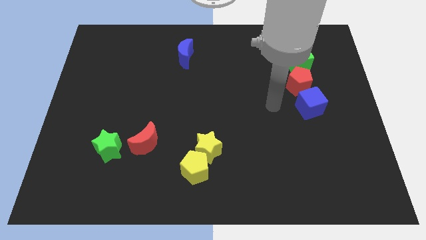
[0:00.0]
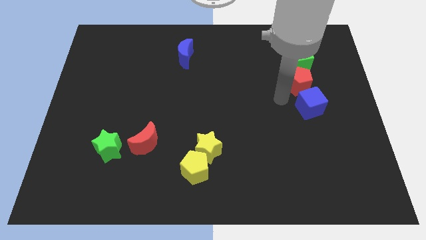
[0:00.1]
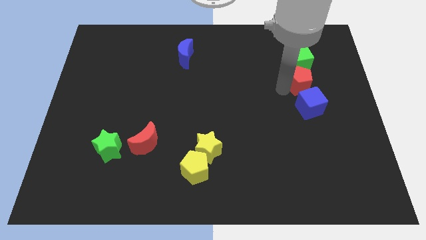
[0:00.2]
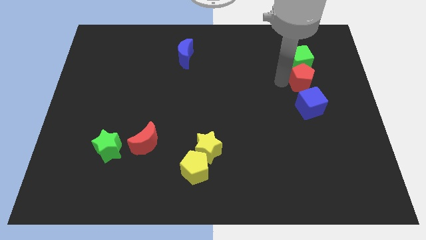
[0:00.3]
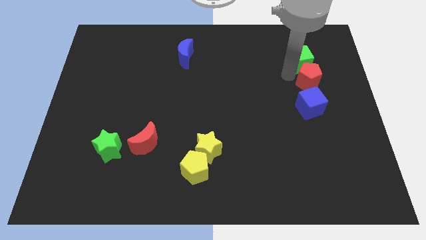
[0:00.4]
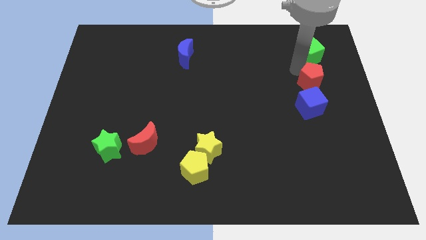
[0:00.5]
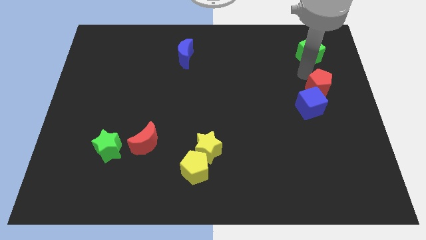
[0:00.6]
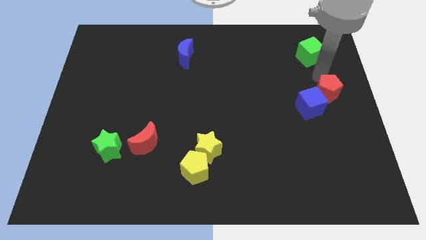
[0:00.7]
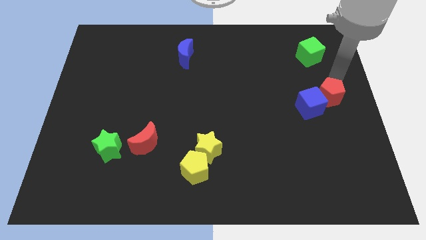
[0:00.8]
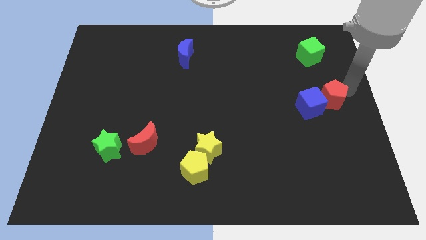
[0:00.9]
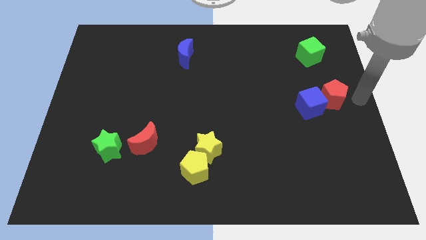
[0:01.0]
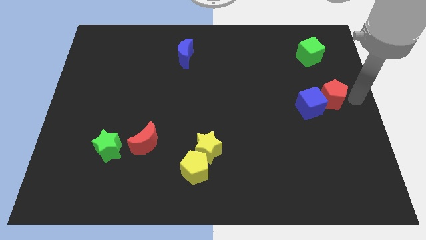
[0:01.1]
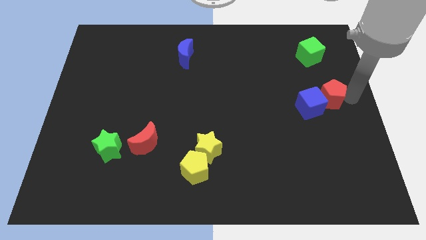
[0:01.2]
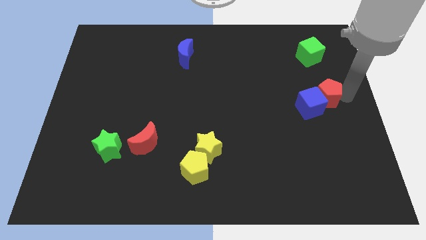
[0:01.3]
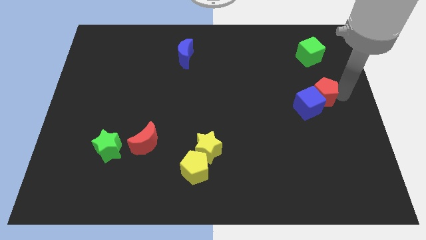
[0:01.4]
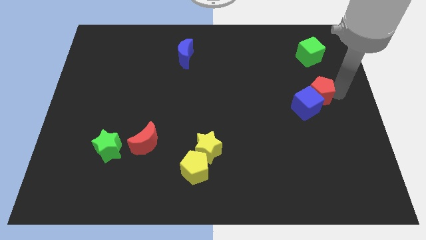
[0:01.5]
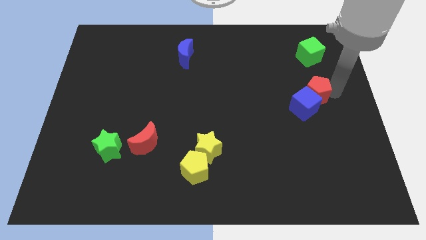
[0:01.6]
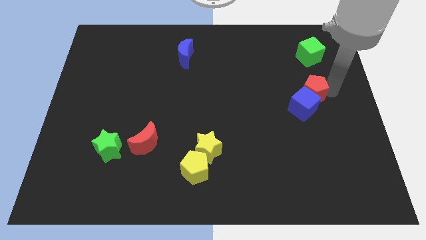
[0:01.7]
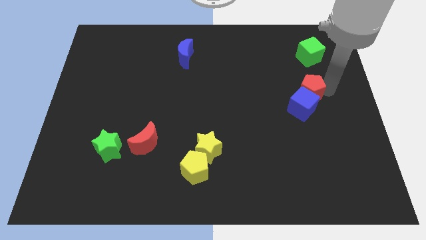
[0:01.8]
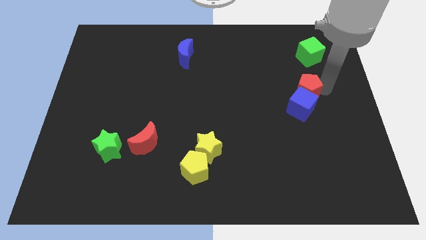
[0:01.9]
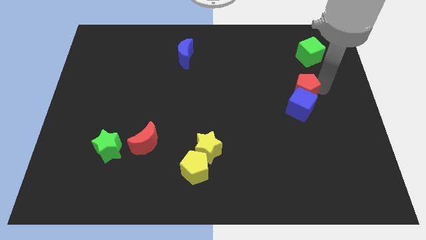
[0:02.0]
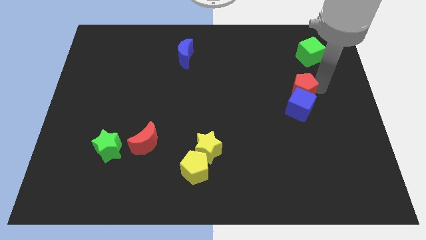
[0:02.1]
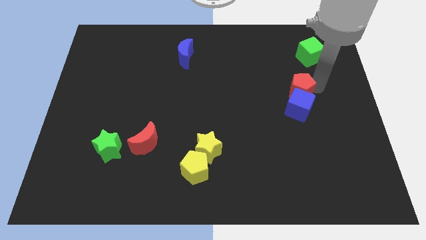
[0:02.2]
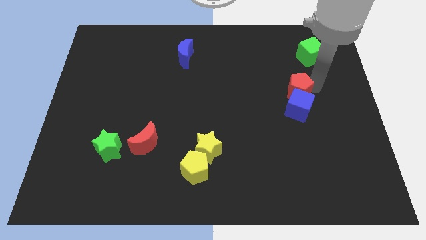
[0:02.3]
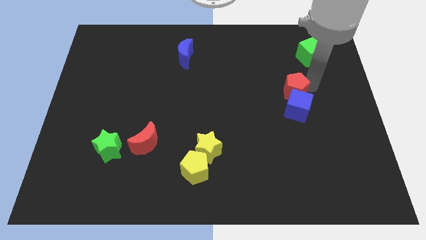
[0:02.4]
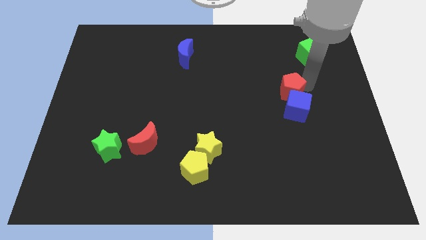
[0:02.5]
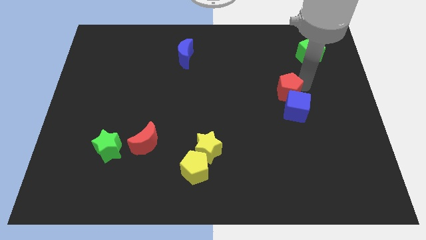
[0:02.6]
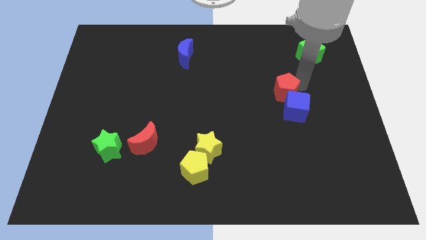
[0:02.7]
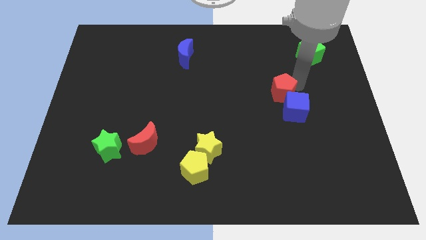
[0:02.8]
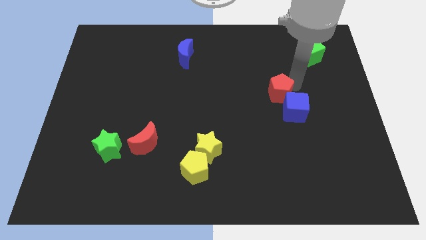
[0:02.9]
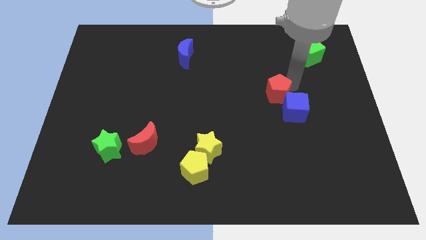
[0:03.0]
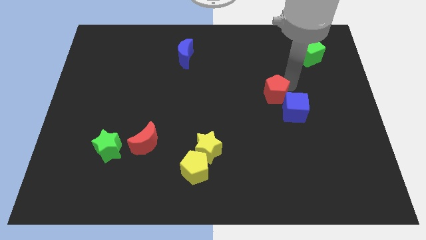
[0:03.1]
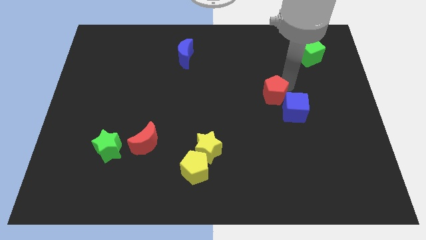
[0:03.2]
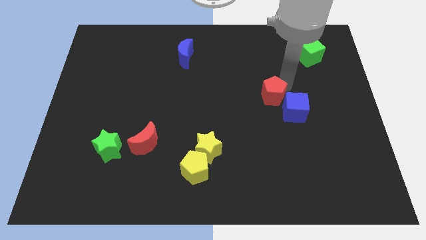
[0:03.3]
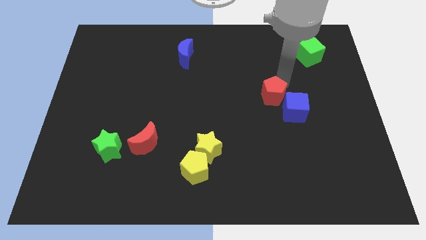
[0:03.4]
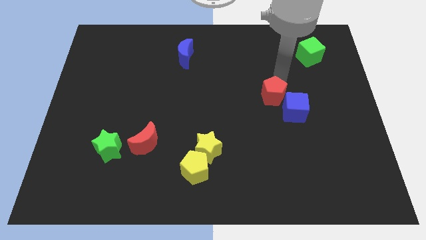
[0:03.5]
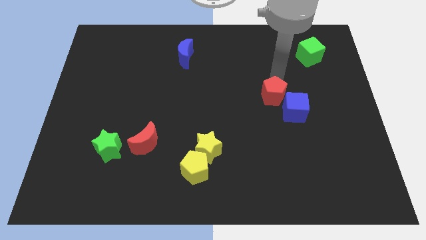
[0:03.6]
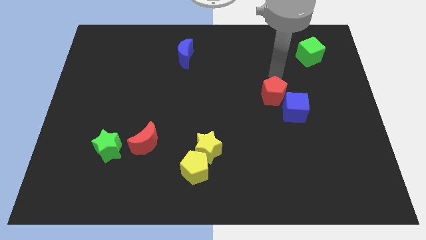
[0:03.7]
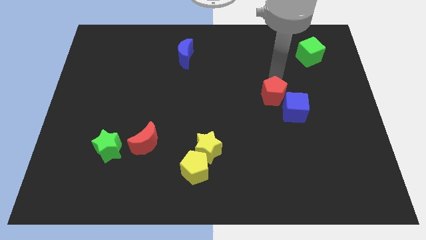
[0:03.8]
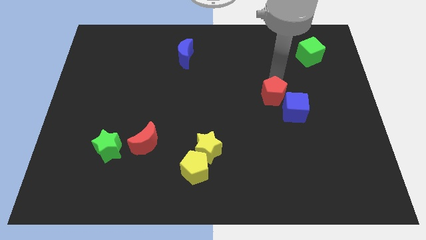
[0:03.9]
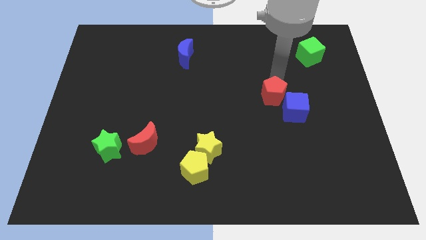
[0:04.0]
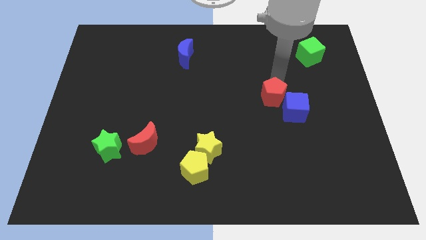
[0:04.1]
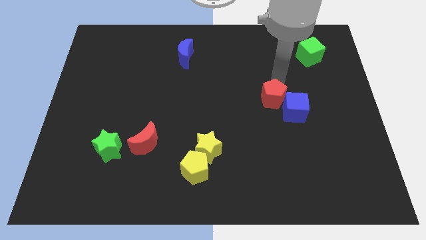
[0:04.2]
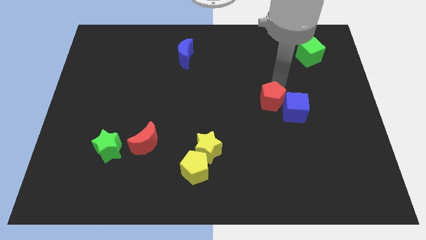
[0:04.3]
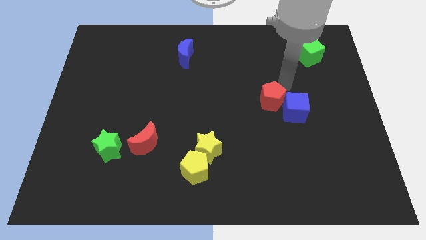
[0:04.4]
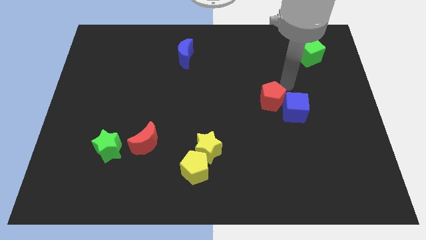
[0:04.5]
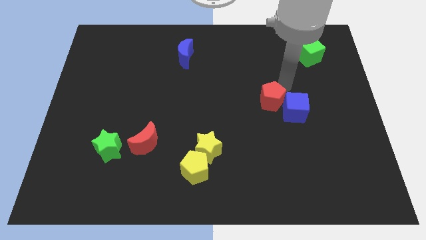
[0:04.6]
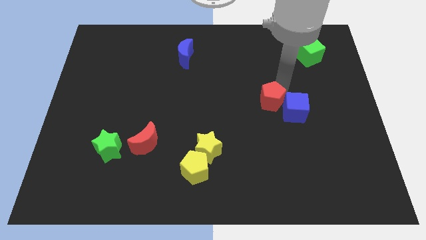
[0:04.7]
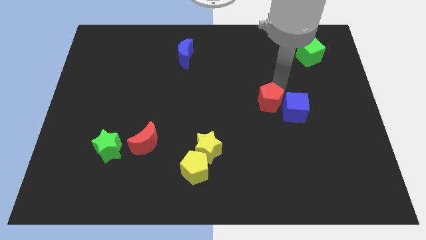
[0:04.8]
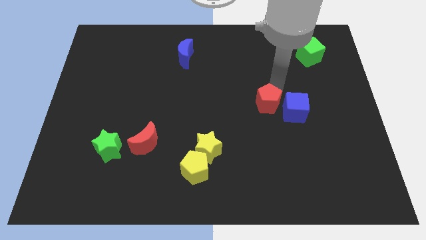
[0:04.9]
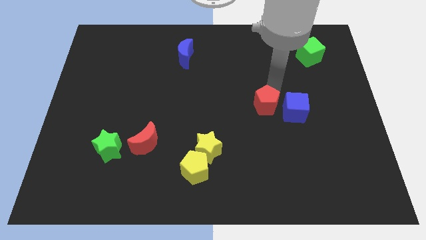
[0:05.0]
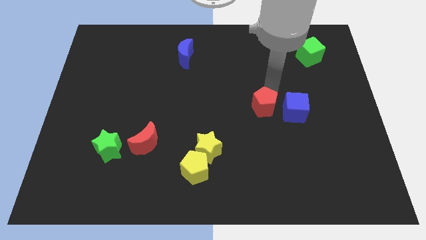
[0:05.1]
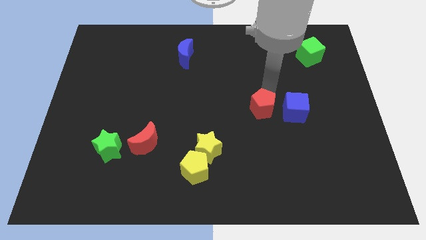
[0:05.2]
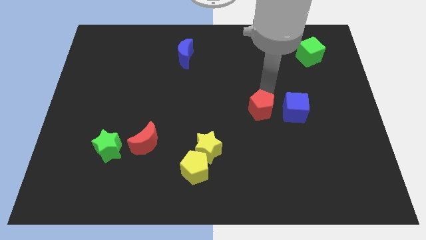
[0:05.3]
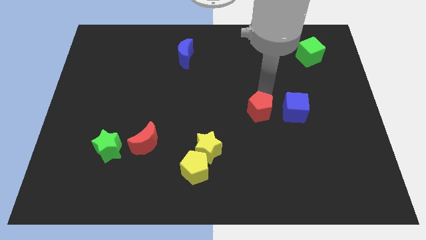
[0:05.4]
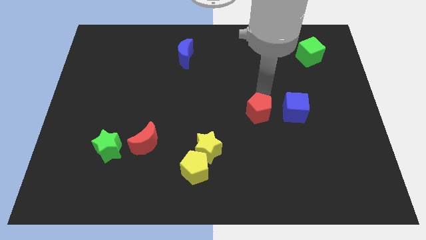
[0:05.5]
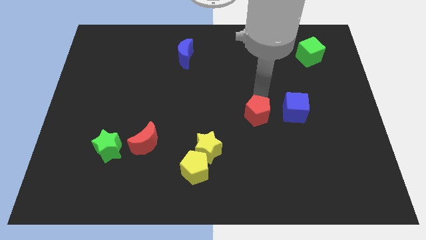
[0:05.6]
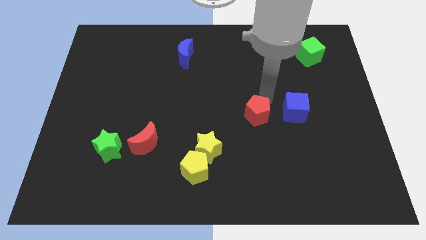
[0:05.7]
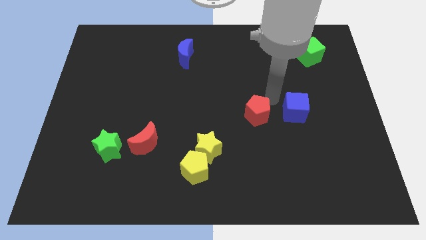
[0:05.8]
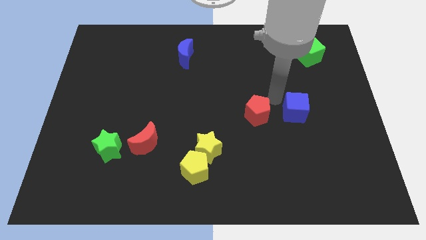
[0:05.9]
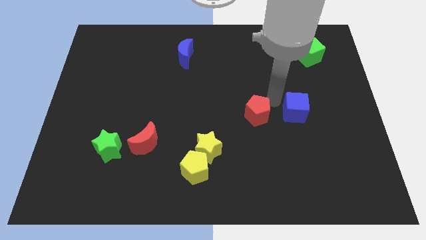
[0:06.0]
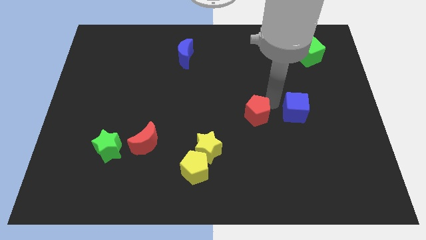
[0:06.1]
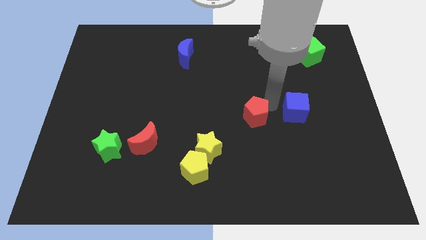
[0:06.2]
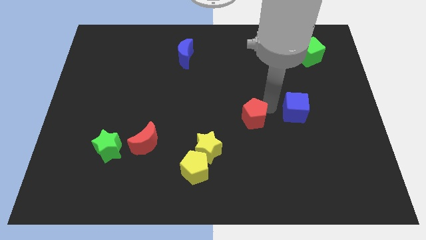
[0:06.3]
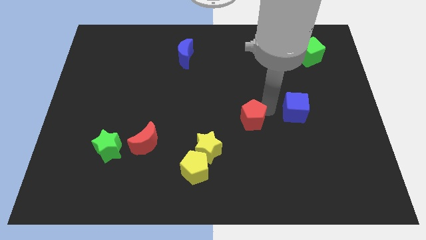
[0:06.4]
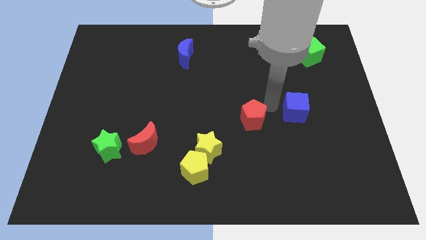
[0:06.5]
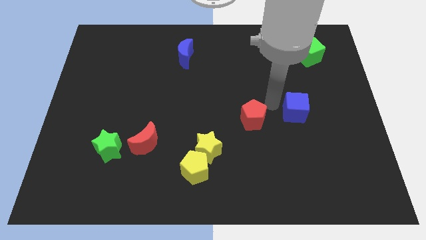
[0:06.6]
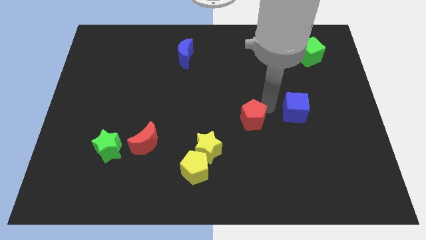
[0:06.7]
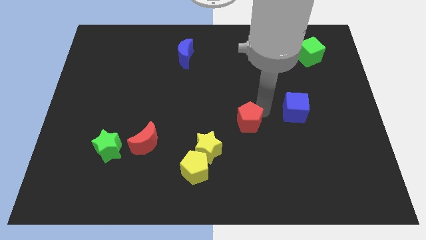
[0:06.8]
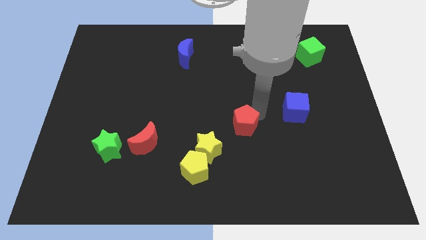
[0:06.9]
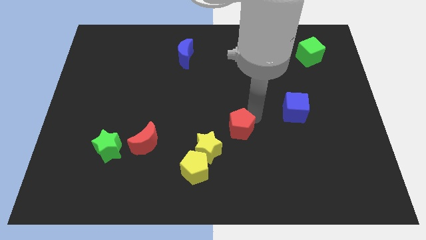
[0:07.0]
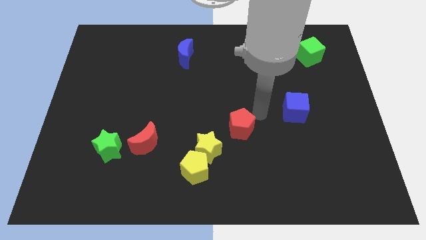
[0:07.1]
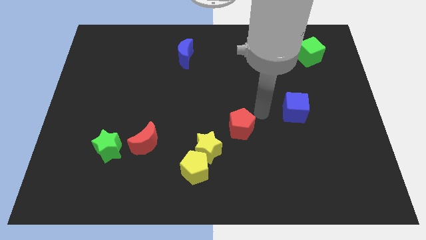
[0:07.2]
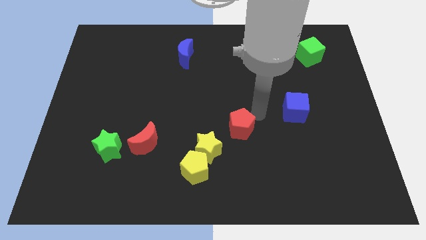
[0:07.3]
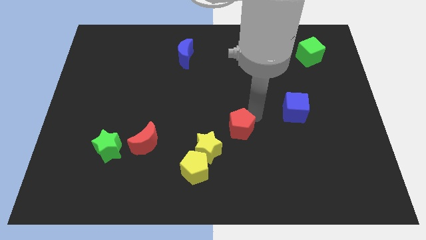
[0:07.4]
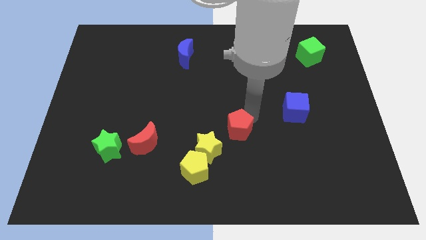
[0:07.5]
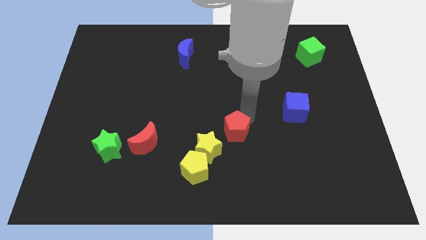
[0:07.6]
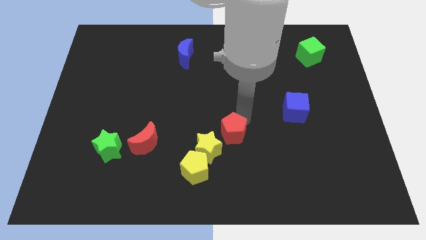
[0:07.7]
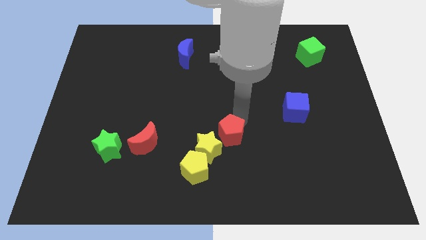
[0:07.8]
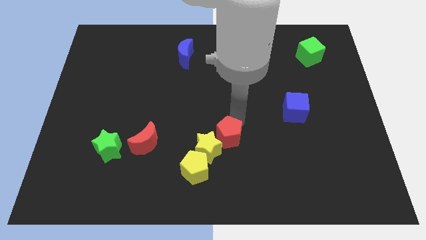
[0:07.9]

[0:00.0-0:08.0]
slide the red pentagon to the yellow star
